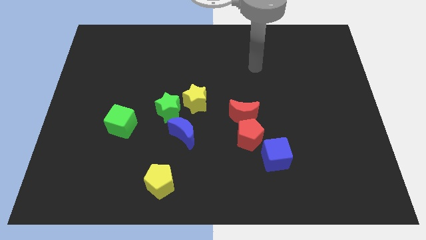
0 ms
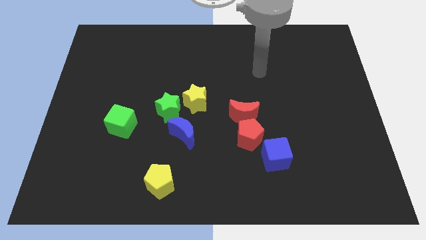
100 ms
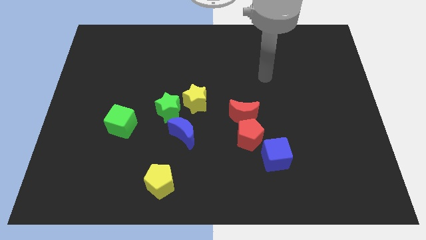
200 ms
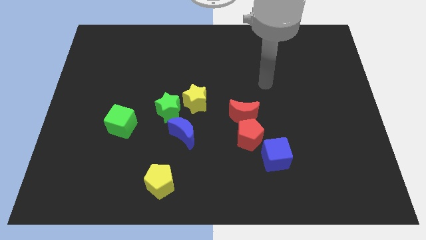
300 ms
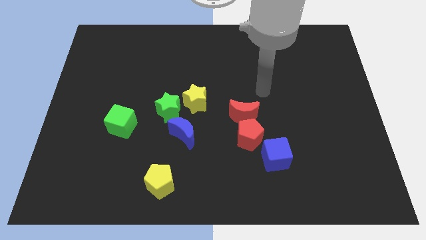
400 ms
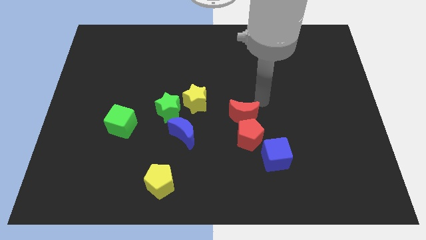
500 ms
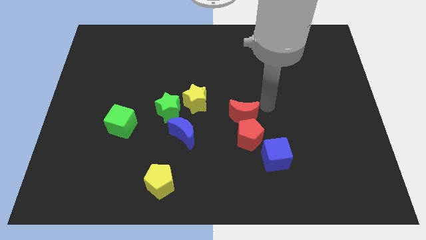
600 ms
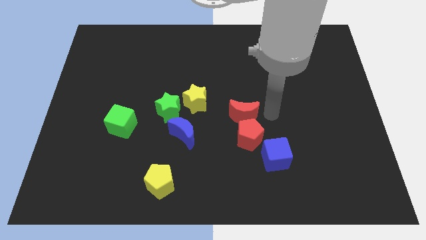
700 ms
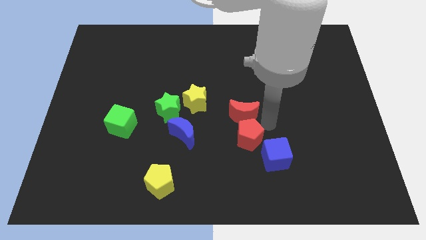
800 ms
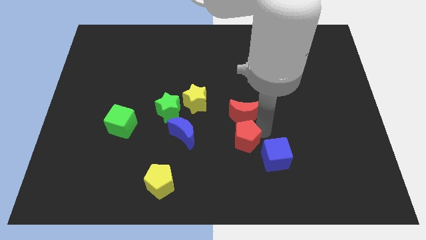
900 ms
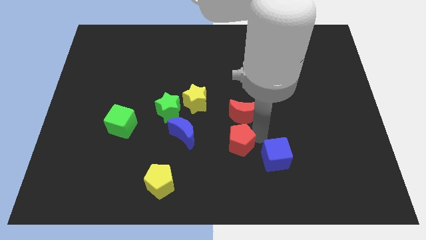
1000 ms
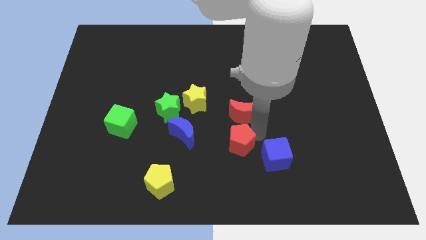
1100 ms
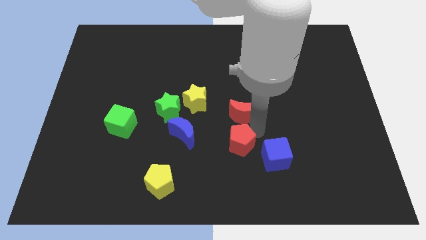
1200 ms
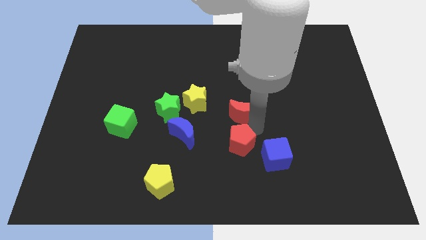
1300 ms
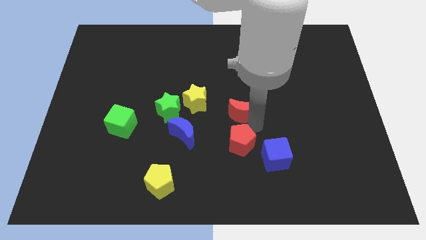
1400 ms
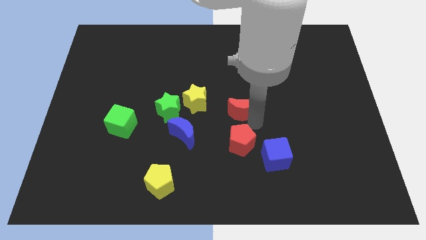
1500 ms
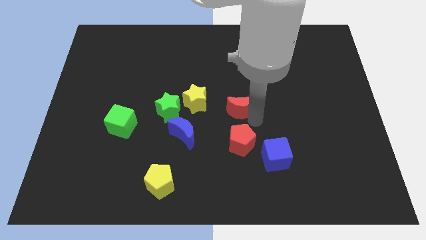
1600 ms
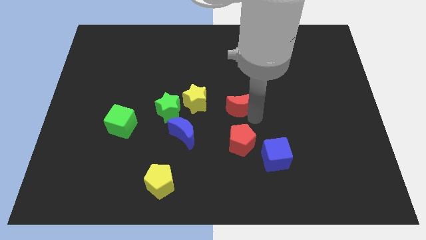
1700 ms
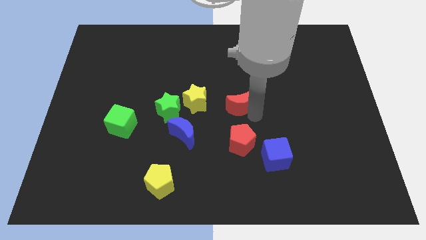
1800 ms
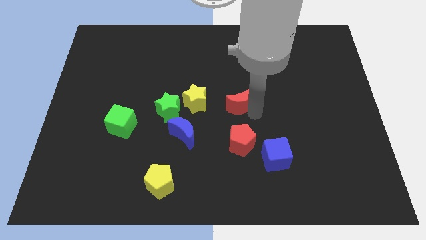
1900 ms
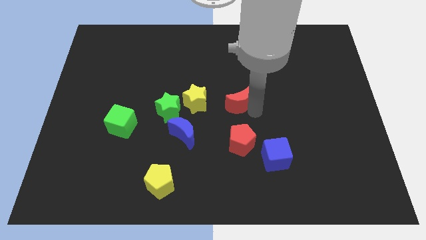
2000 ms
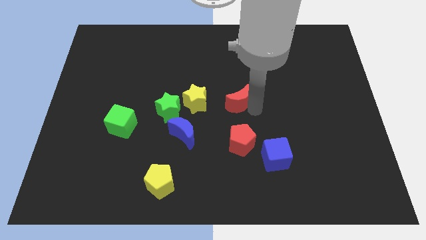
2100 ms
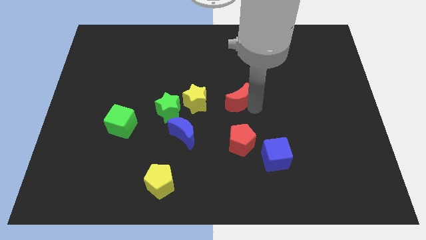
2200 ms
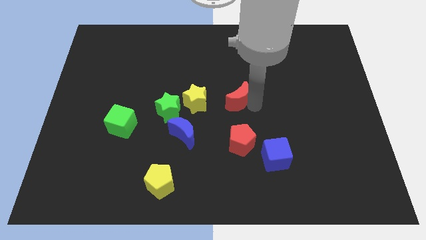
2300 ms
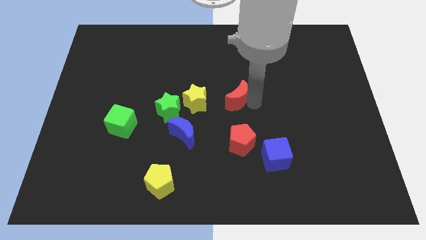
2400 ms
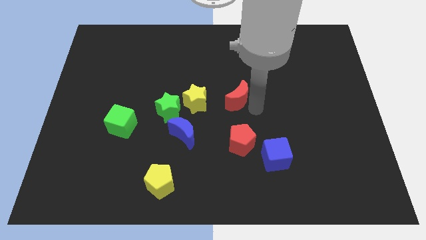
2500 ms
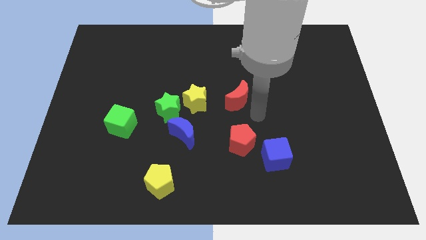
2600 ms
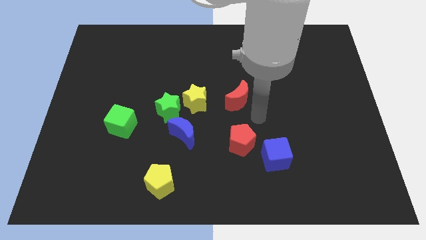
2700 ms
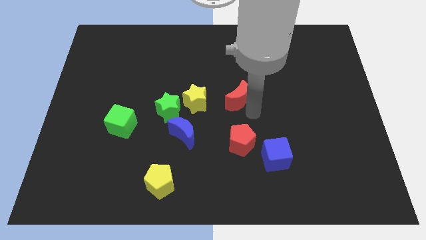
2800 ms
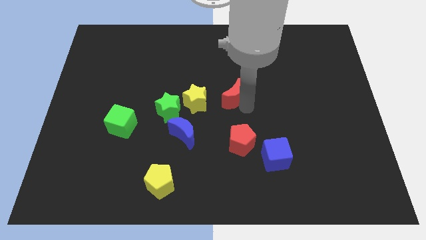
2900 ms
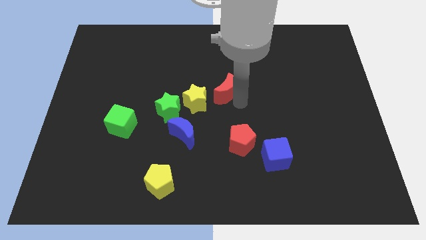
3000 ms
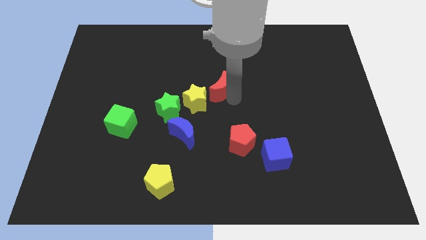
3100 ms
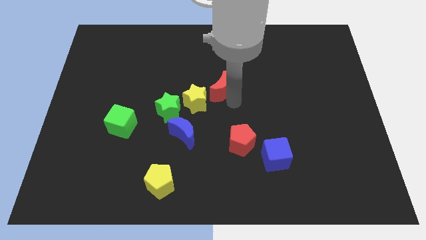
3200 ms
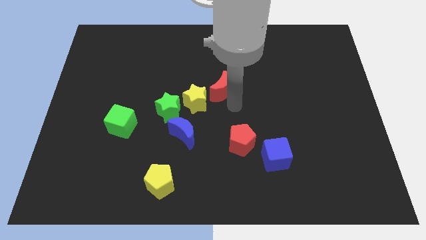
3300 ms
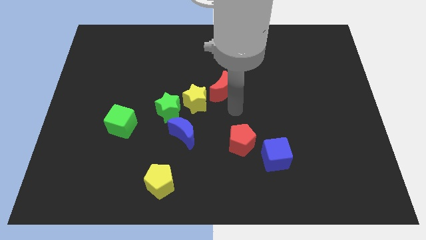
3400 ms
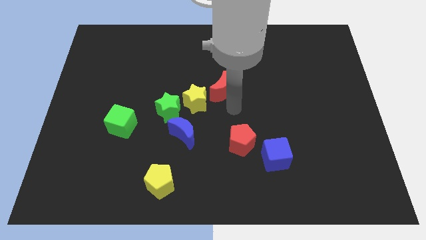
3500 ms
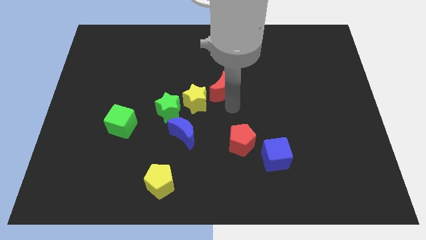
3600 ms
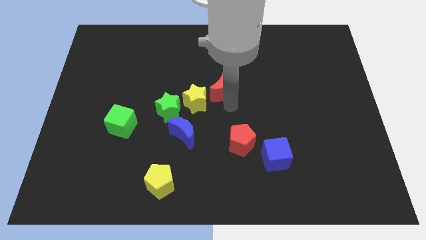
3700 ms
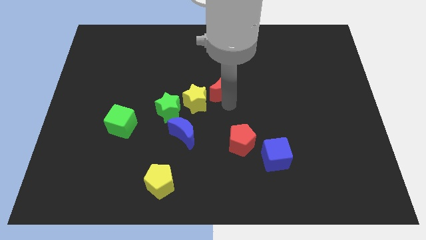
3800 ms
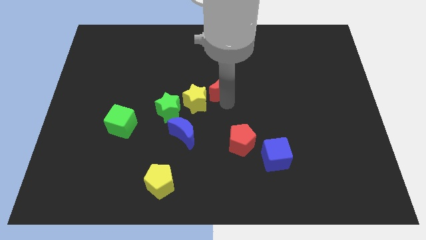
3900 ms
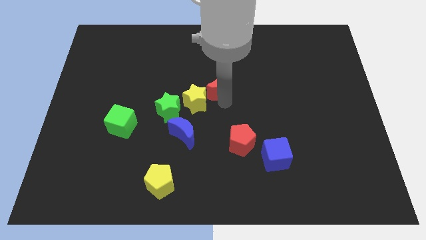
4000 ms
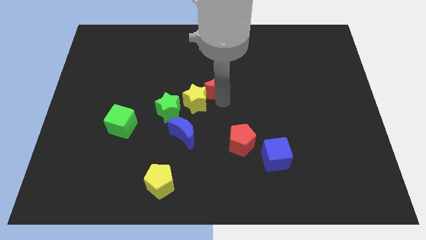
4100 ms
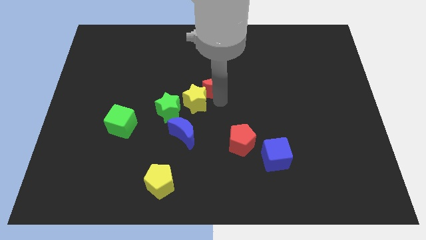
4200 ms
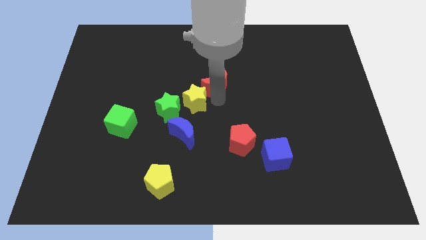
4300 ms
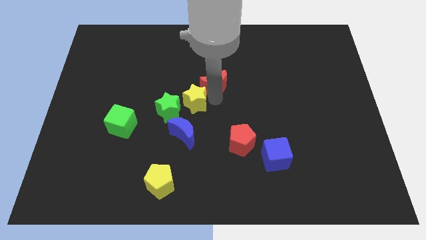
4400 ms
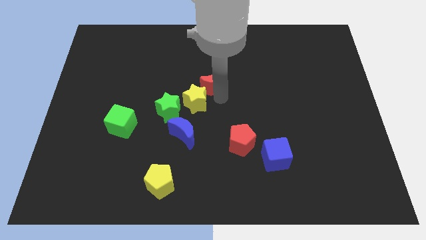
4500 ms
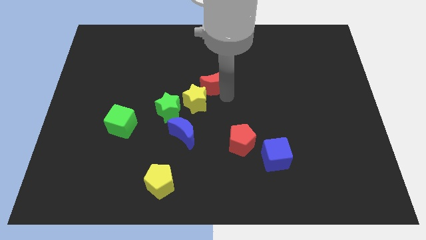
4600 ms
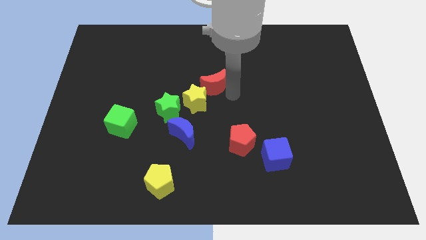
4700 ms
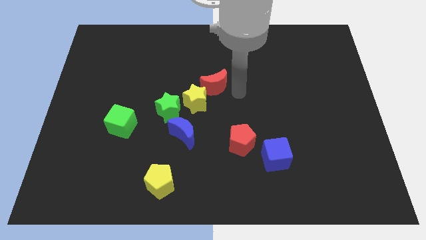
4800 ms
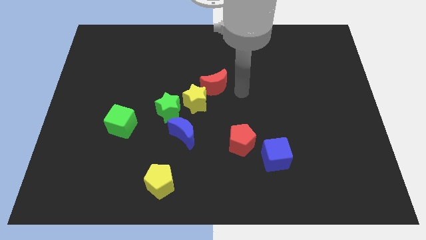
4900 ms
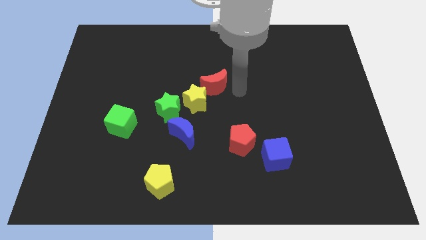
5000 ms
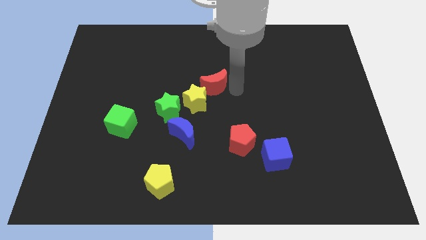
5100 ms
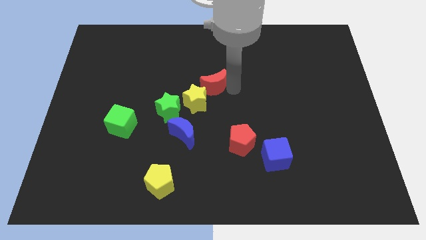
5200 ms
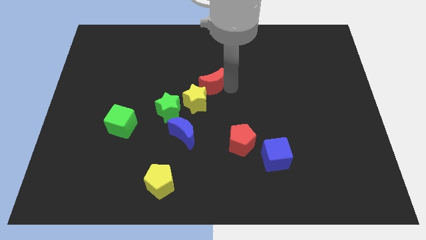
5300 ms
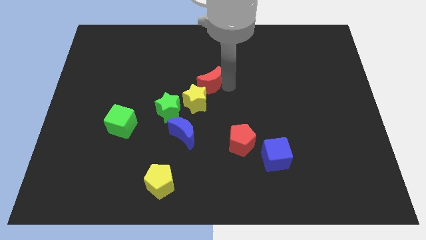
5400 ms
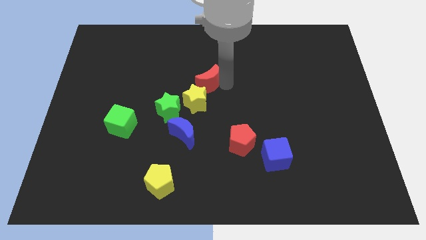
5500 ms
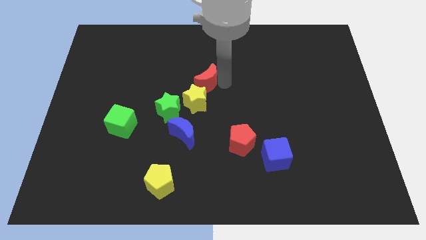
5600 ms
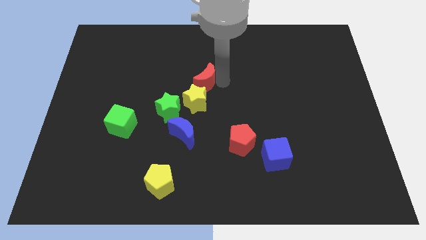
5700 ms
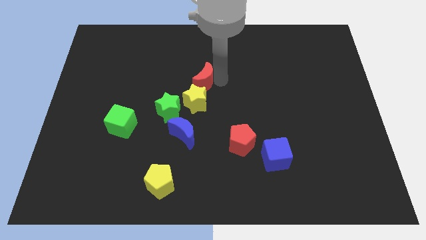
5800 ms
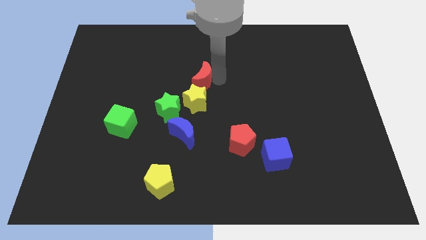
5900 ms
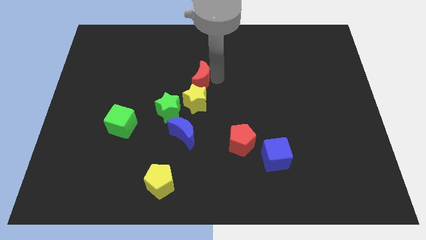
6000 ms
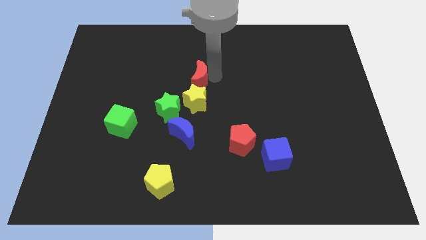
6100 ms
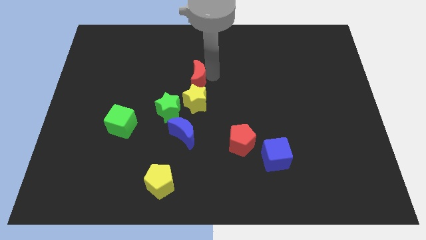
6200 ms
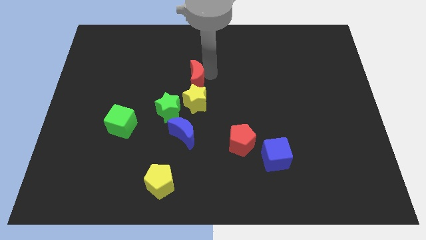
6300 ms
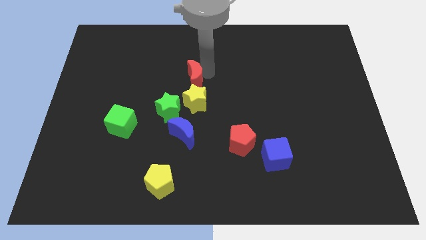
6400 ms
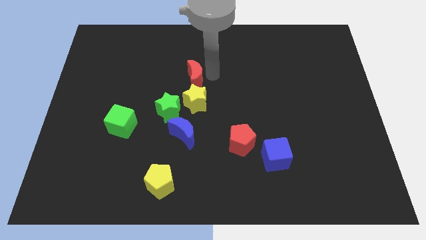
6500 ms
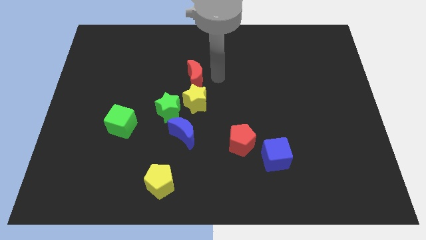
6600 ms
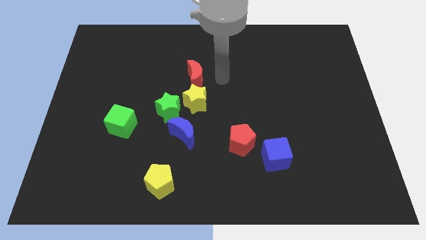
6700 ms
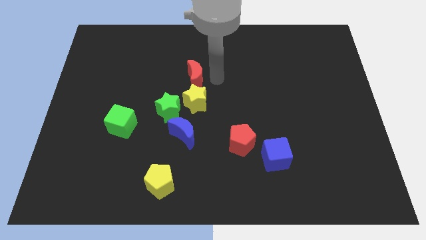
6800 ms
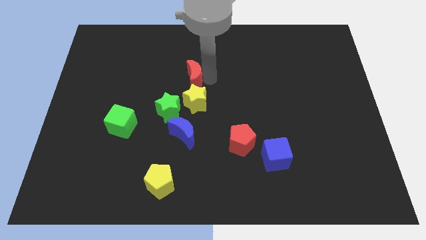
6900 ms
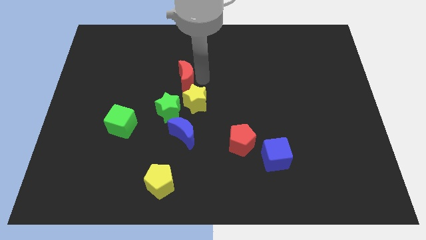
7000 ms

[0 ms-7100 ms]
move the red moon to the top of the green star
